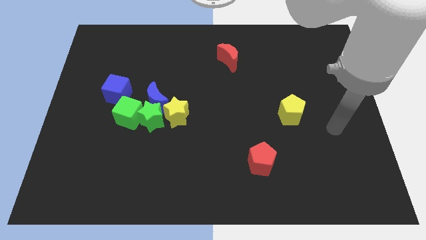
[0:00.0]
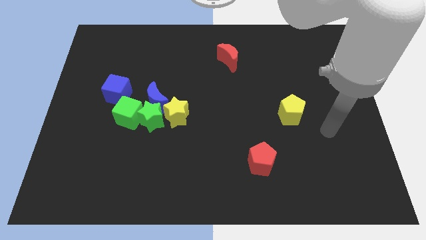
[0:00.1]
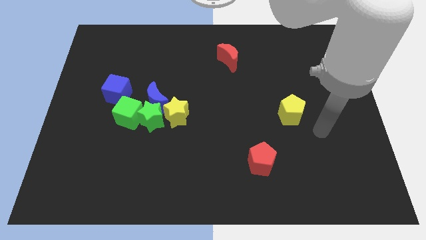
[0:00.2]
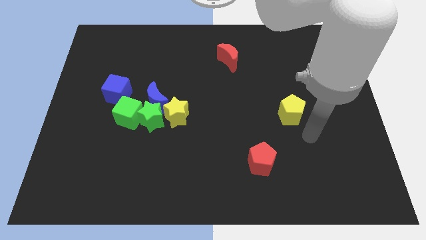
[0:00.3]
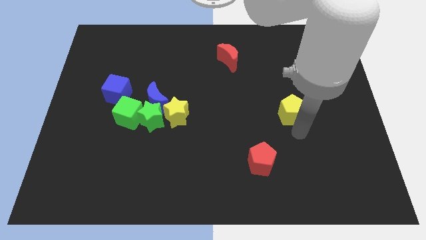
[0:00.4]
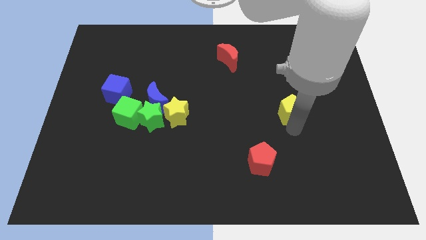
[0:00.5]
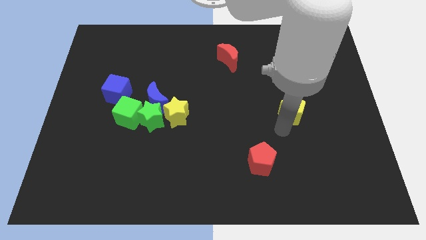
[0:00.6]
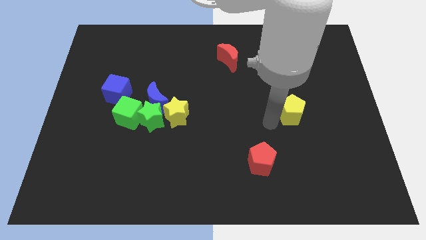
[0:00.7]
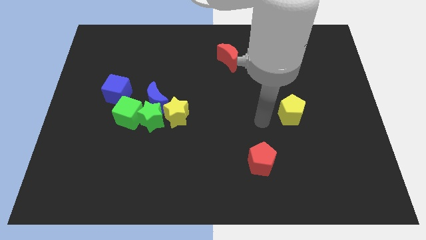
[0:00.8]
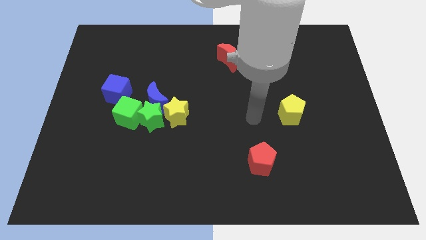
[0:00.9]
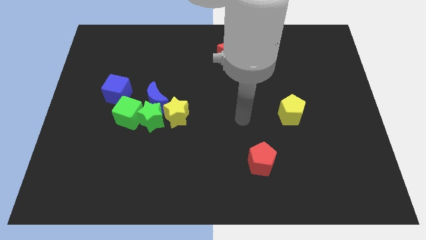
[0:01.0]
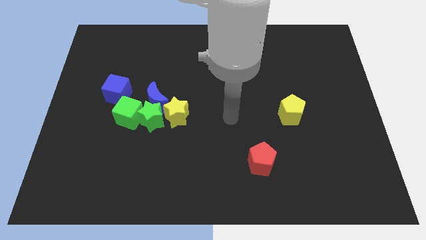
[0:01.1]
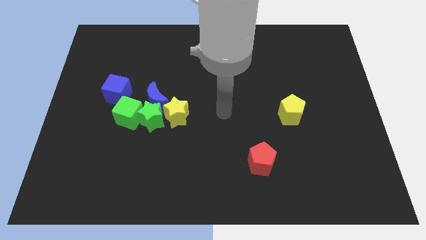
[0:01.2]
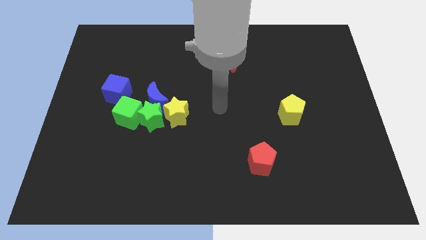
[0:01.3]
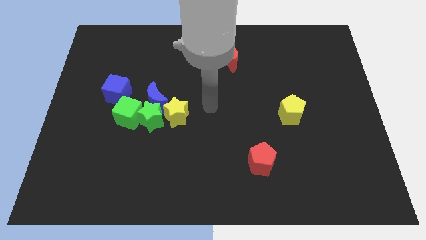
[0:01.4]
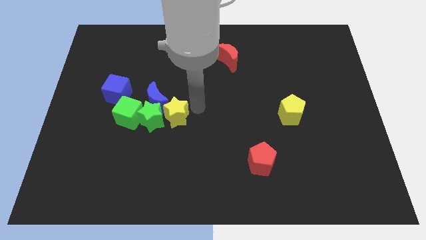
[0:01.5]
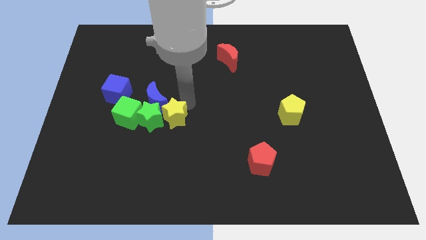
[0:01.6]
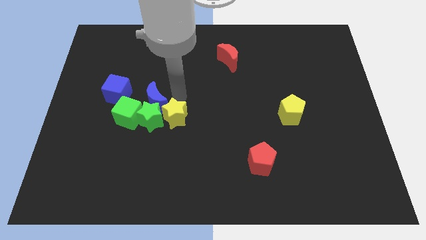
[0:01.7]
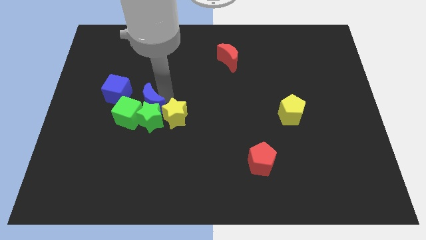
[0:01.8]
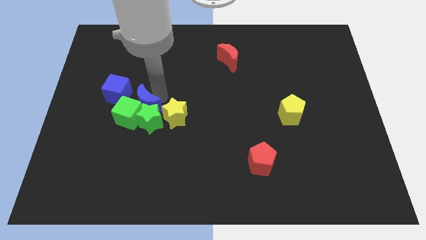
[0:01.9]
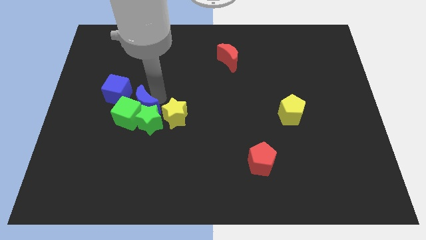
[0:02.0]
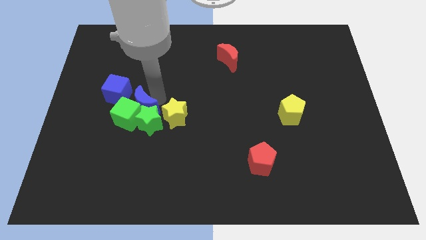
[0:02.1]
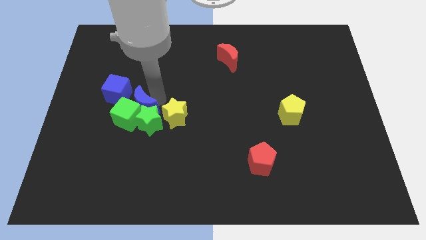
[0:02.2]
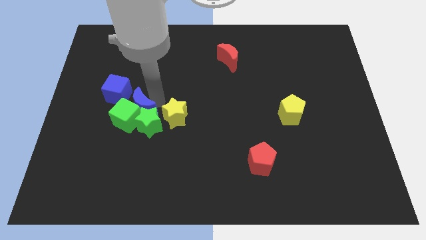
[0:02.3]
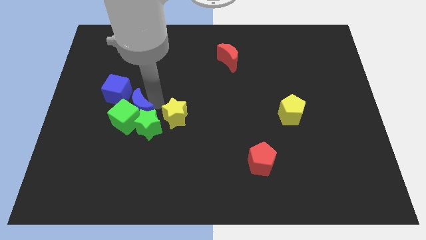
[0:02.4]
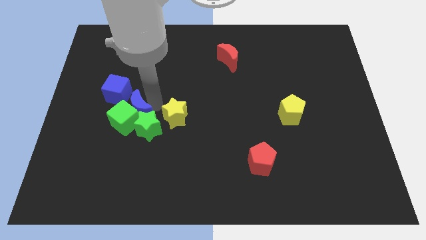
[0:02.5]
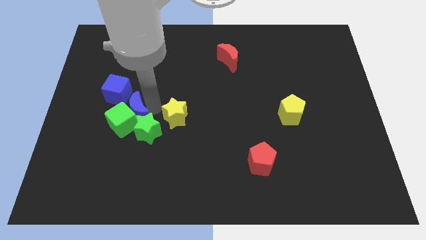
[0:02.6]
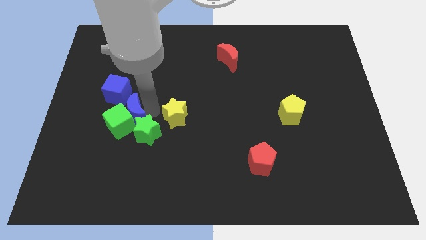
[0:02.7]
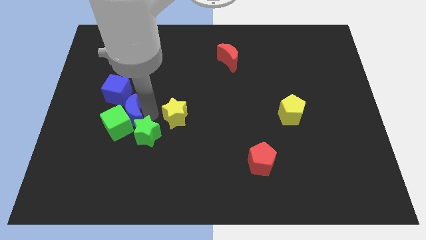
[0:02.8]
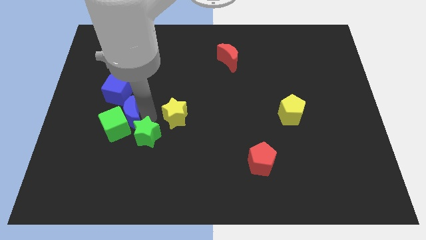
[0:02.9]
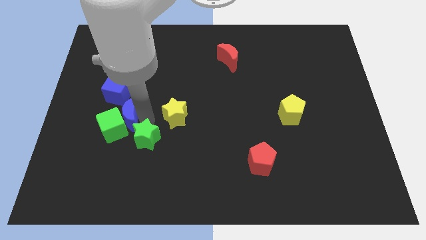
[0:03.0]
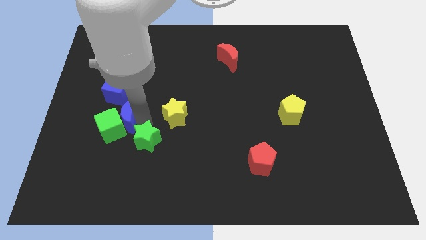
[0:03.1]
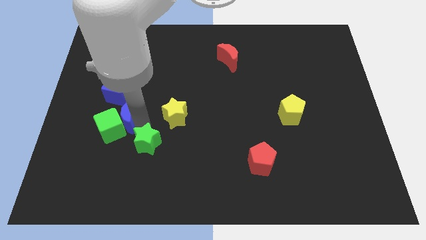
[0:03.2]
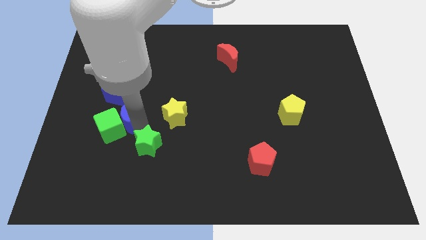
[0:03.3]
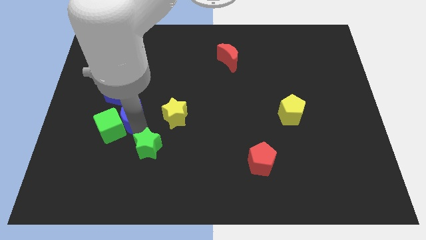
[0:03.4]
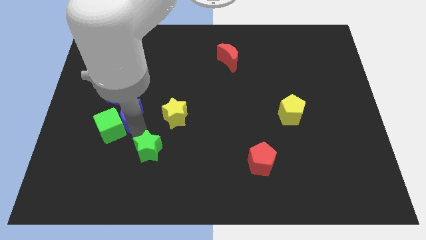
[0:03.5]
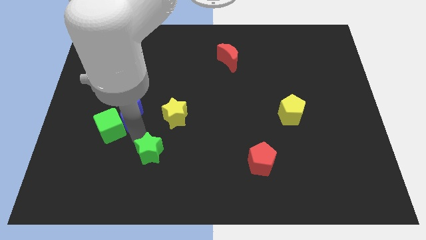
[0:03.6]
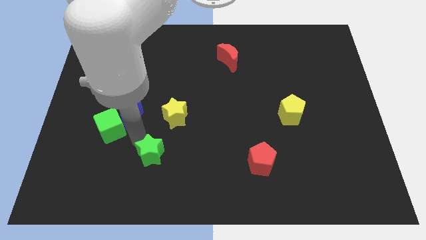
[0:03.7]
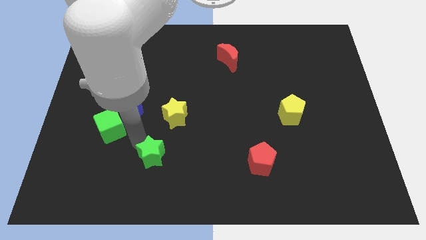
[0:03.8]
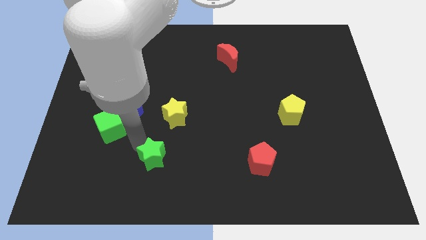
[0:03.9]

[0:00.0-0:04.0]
move the green star away from the blue moon, green cube, and yellow star

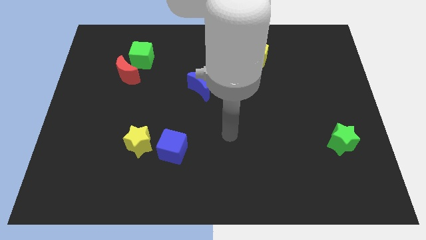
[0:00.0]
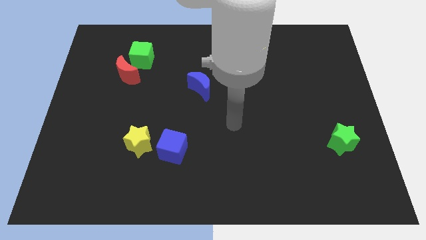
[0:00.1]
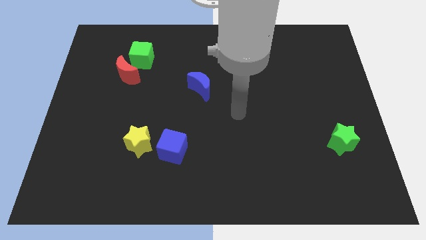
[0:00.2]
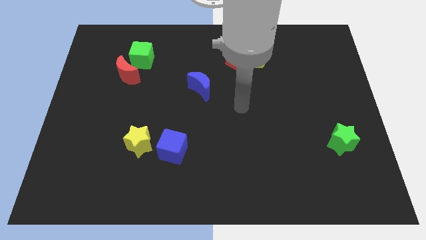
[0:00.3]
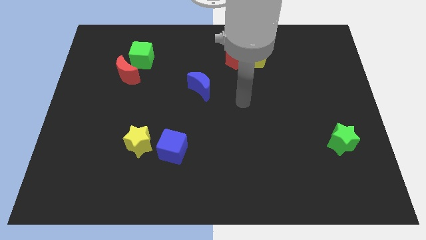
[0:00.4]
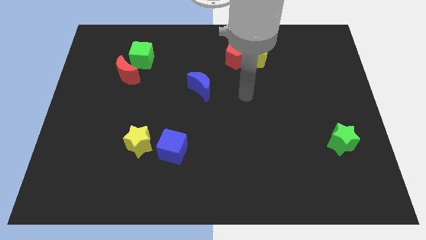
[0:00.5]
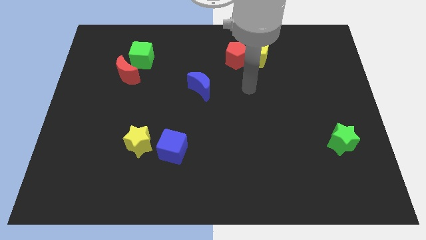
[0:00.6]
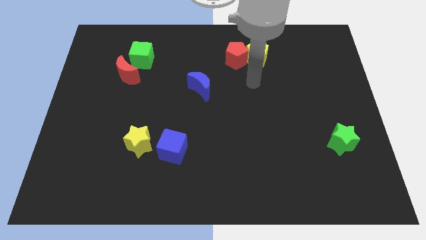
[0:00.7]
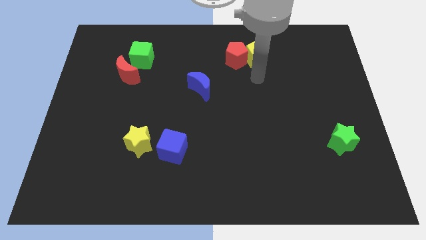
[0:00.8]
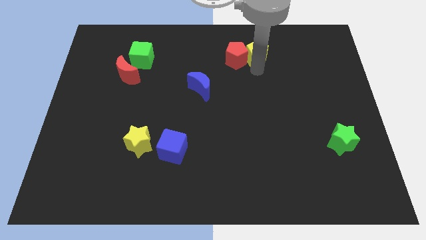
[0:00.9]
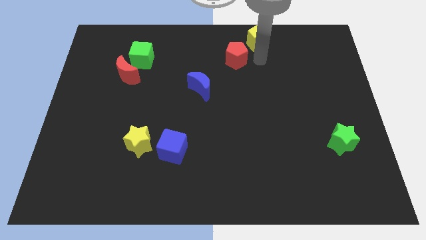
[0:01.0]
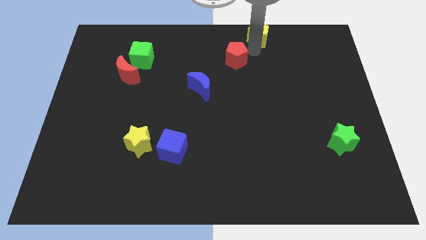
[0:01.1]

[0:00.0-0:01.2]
separate the red pentagon from the yellow pentagon

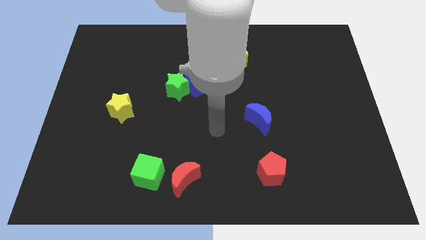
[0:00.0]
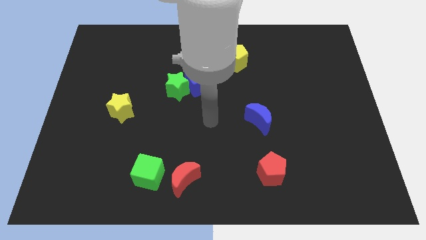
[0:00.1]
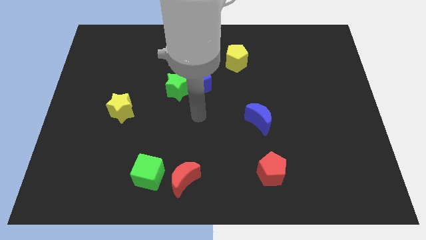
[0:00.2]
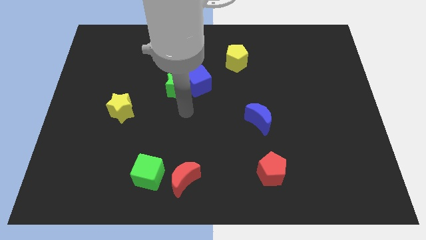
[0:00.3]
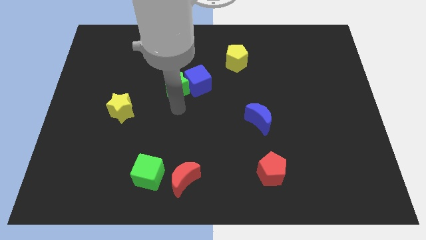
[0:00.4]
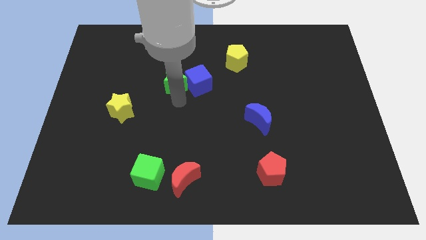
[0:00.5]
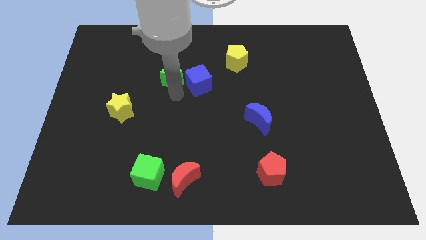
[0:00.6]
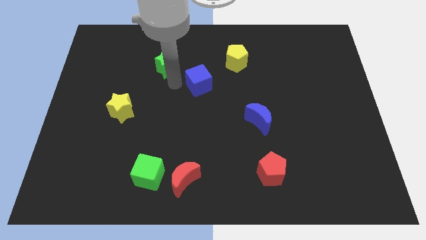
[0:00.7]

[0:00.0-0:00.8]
move the blue cube away from the green star

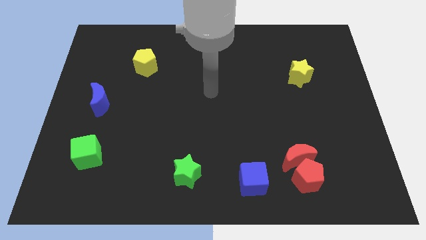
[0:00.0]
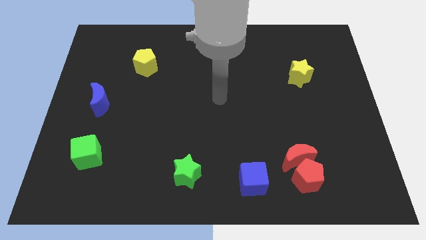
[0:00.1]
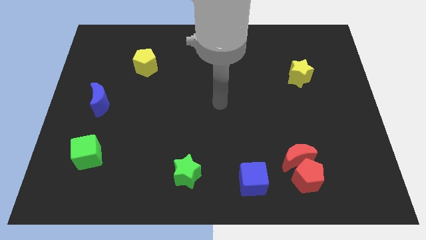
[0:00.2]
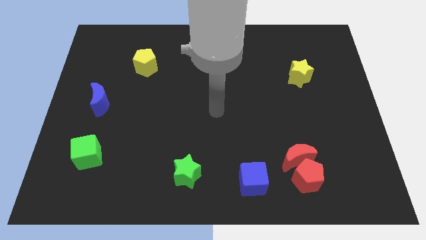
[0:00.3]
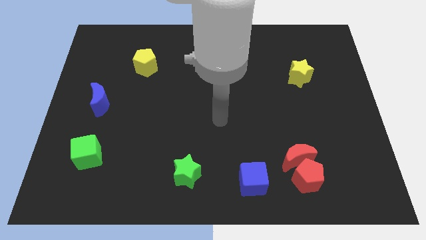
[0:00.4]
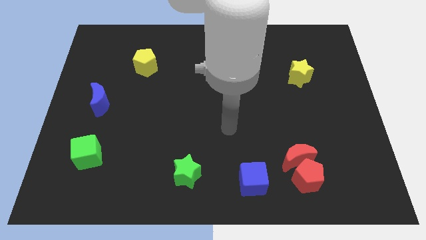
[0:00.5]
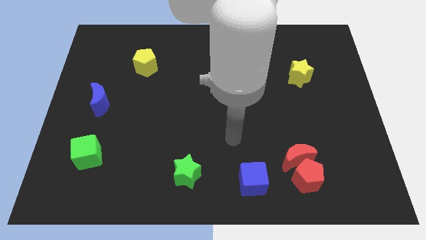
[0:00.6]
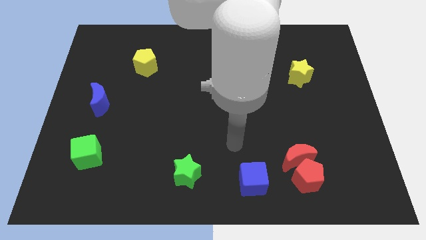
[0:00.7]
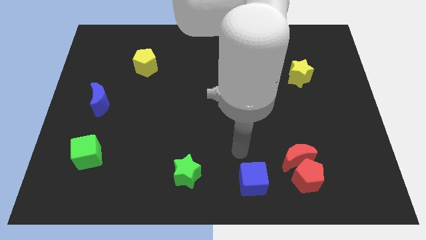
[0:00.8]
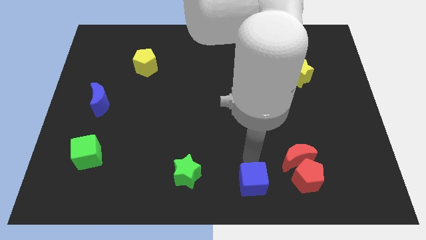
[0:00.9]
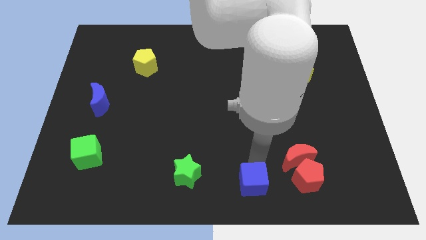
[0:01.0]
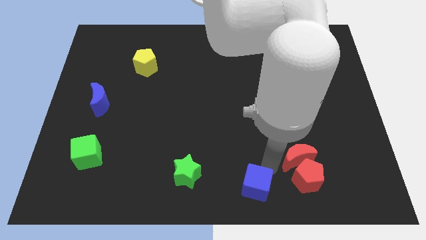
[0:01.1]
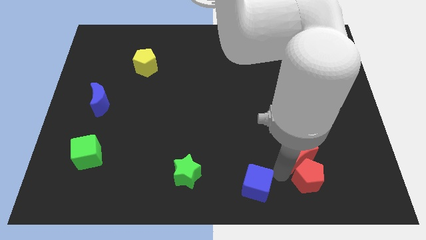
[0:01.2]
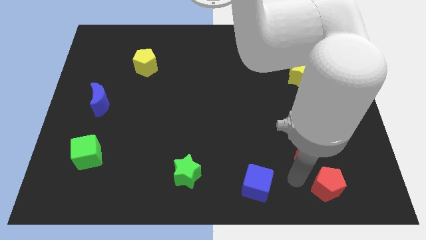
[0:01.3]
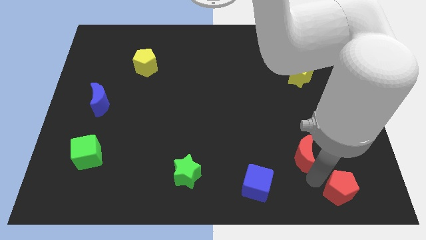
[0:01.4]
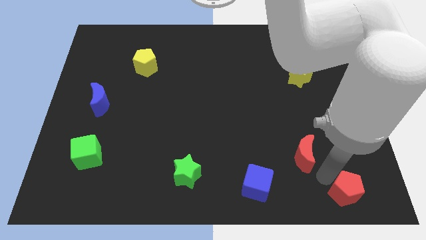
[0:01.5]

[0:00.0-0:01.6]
move the red moon away from the red pentagon

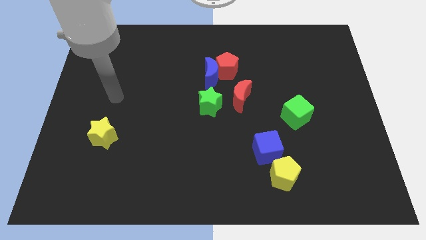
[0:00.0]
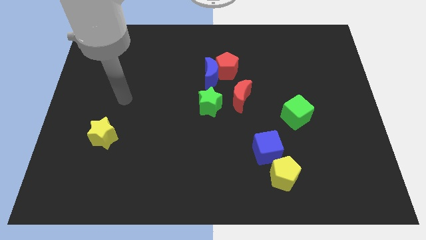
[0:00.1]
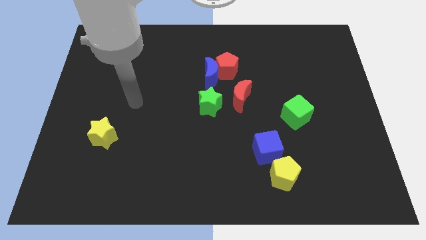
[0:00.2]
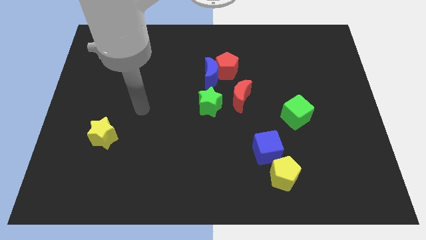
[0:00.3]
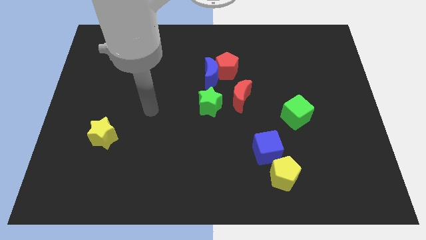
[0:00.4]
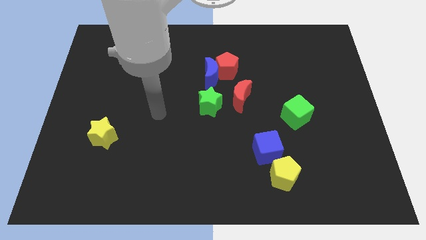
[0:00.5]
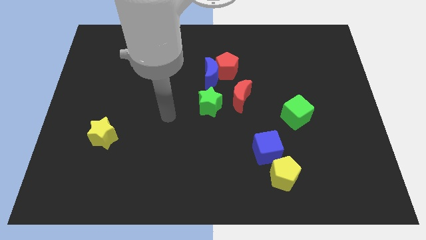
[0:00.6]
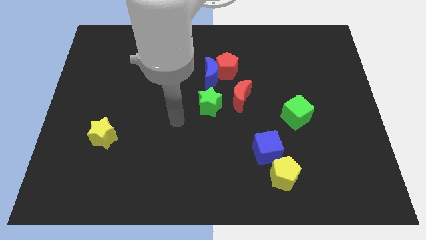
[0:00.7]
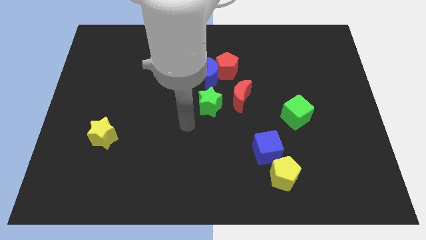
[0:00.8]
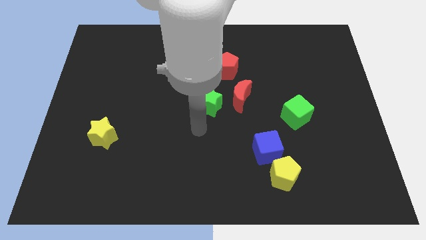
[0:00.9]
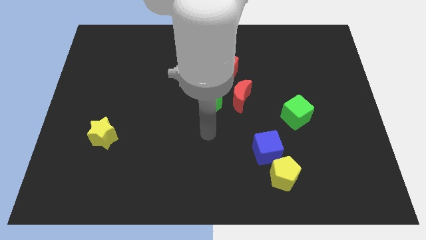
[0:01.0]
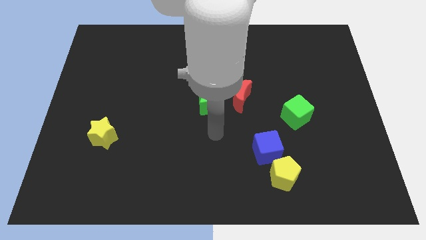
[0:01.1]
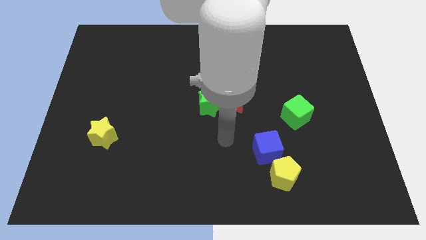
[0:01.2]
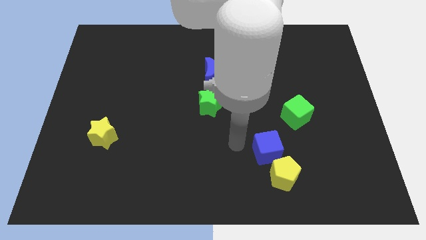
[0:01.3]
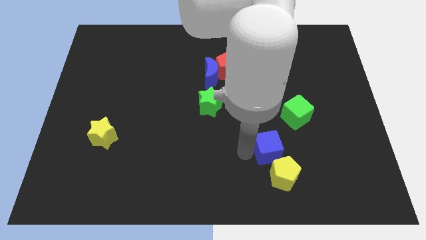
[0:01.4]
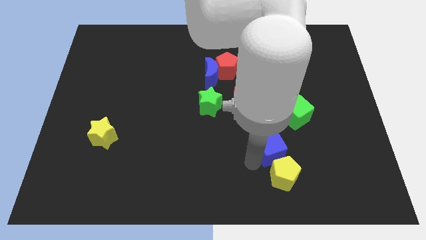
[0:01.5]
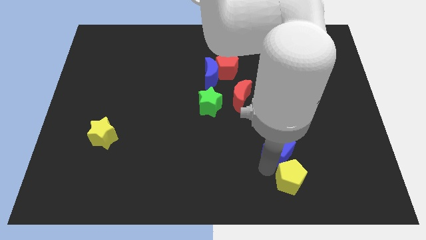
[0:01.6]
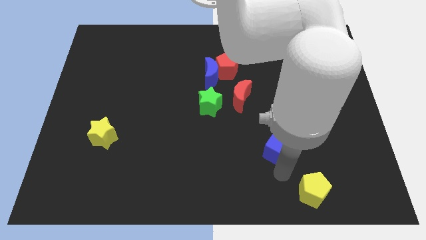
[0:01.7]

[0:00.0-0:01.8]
pull the blue cube apart from the yellow pentagon
